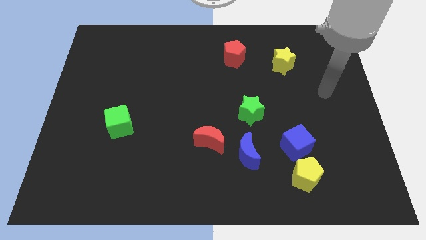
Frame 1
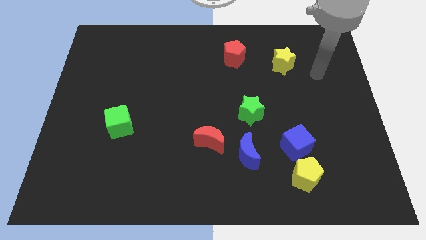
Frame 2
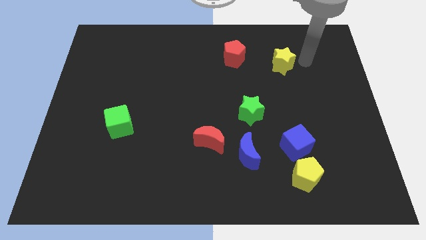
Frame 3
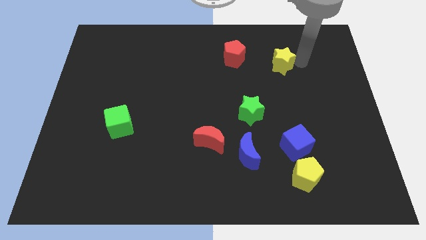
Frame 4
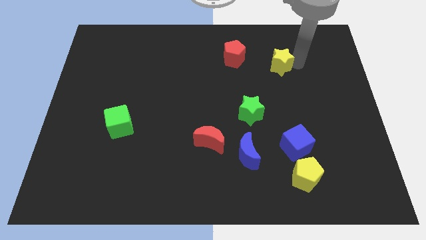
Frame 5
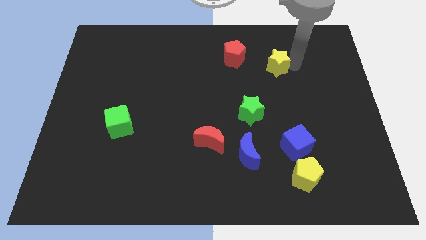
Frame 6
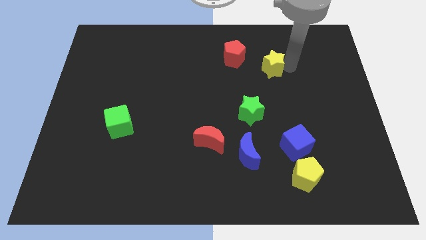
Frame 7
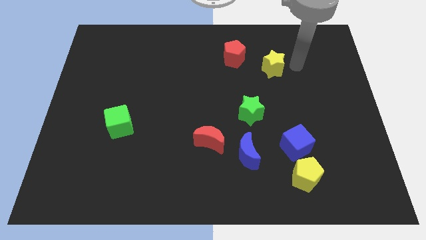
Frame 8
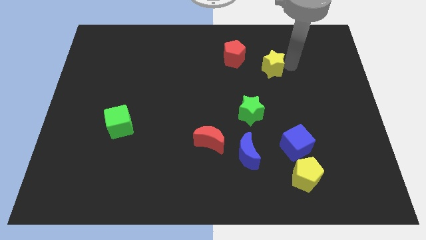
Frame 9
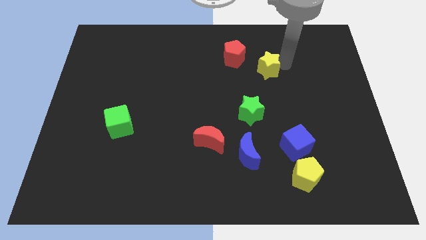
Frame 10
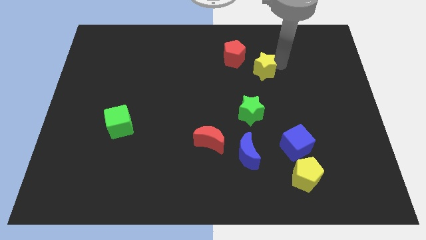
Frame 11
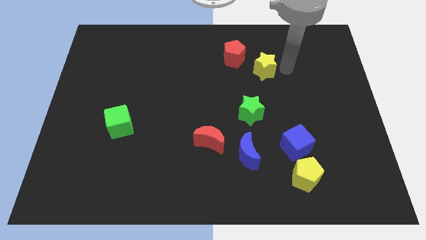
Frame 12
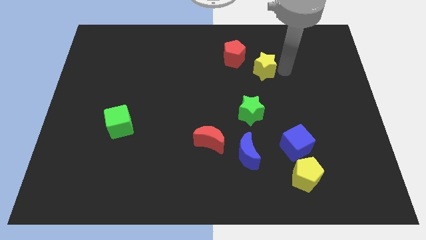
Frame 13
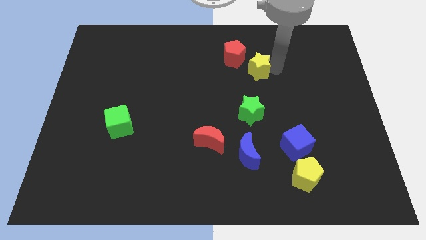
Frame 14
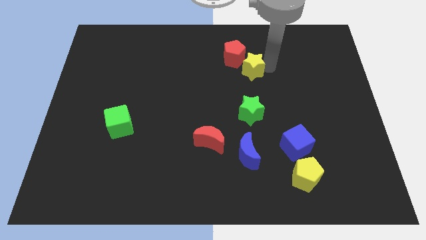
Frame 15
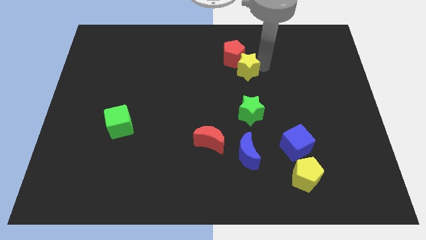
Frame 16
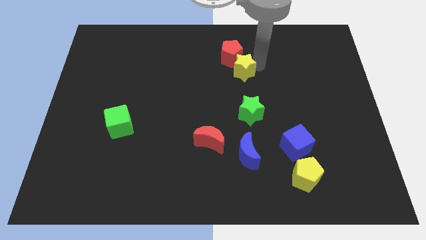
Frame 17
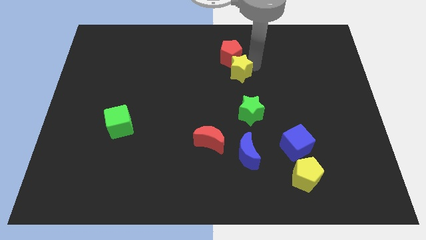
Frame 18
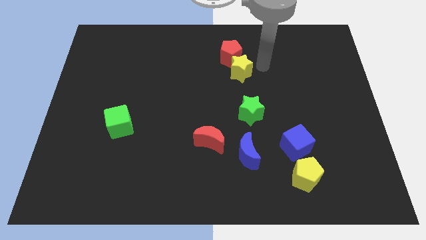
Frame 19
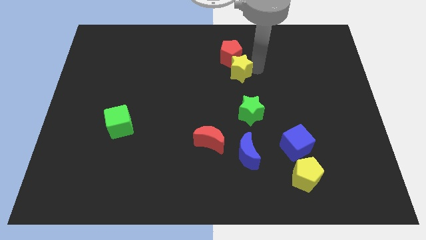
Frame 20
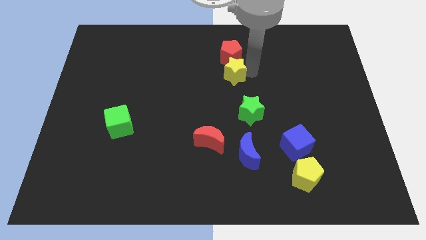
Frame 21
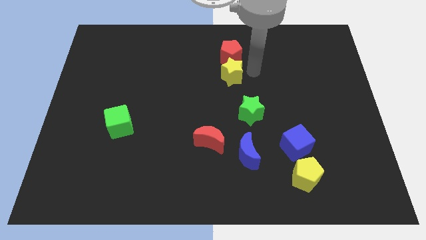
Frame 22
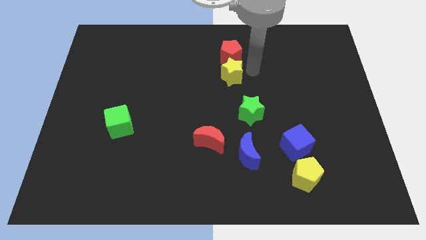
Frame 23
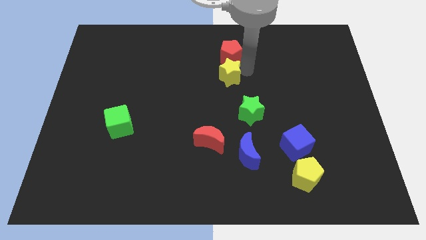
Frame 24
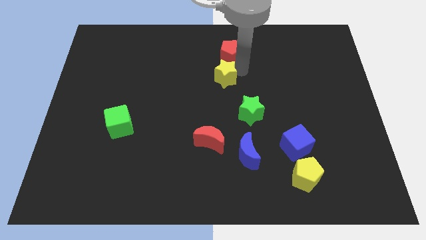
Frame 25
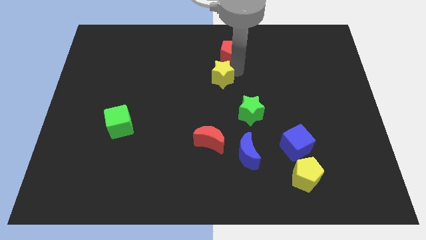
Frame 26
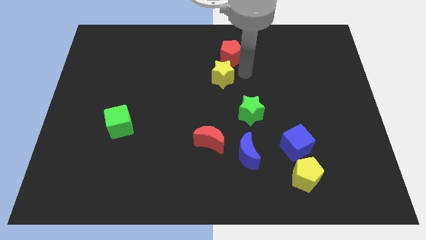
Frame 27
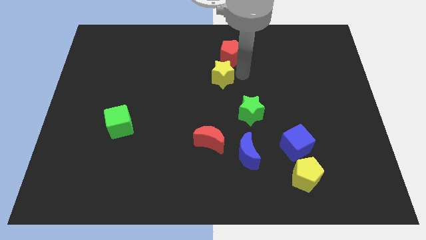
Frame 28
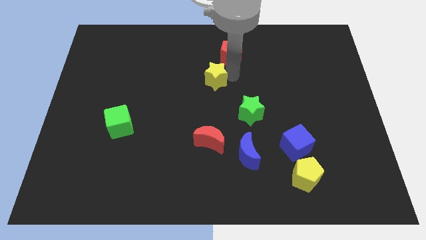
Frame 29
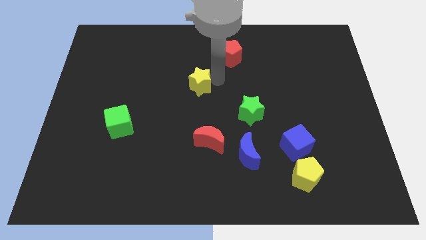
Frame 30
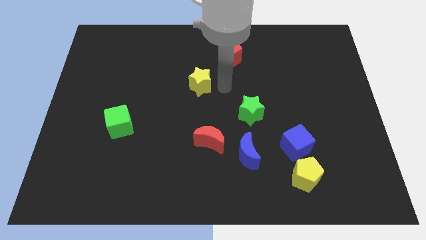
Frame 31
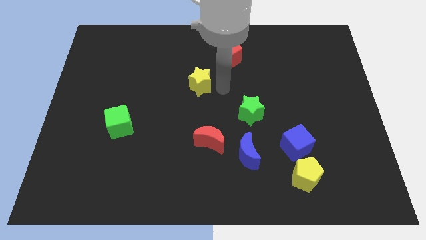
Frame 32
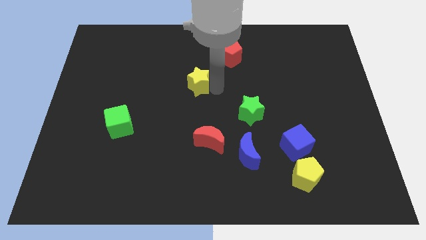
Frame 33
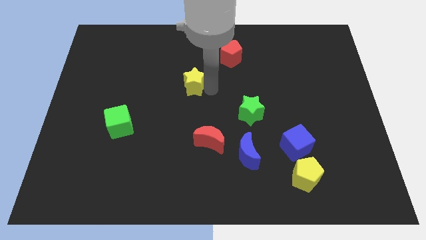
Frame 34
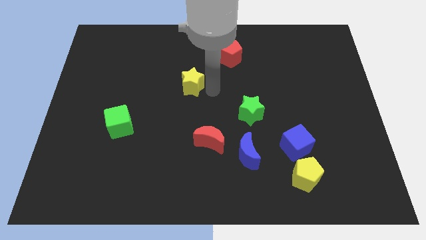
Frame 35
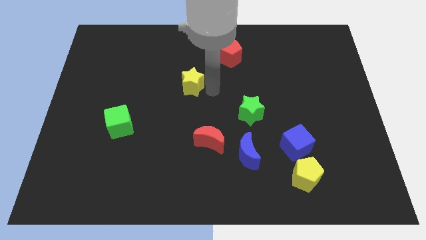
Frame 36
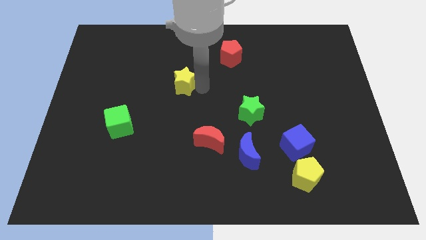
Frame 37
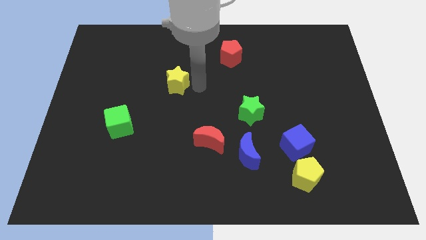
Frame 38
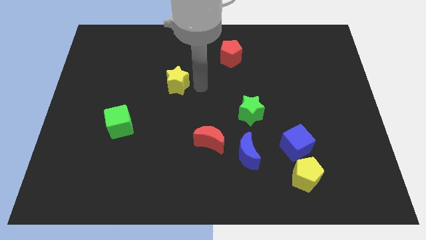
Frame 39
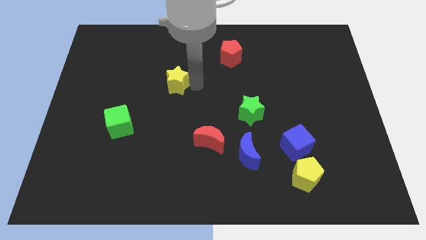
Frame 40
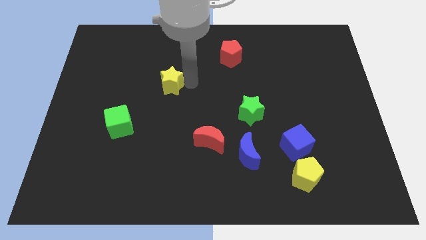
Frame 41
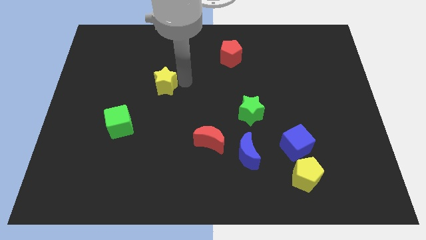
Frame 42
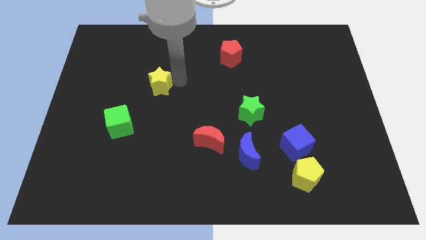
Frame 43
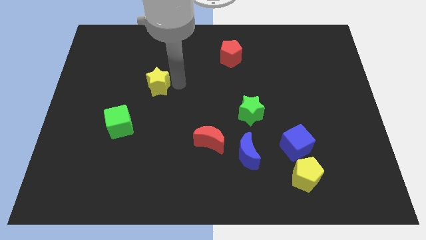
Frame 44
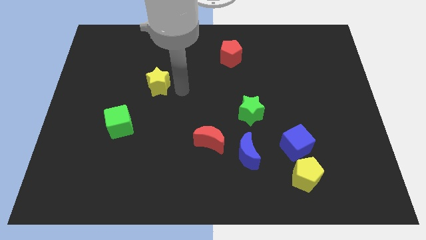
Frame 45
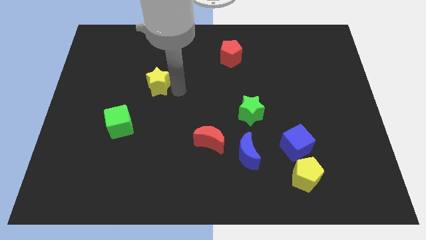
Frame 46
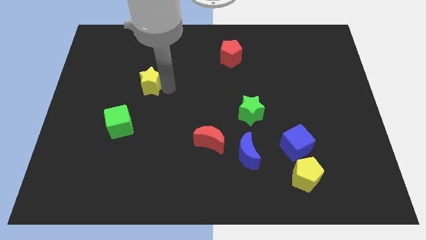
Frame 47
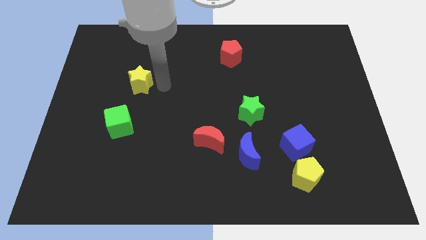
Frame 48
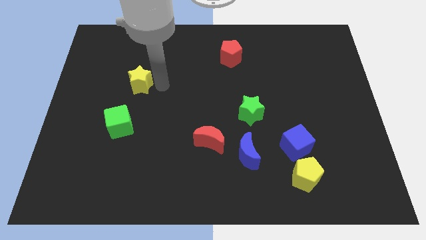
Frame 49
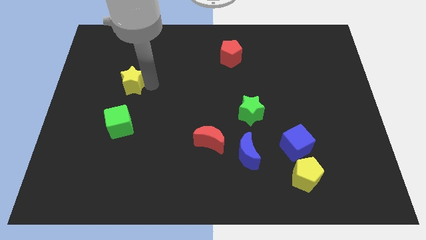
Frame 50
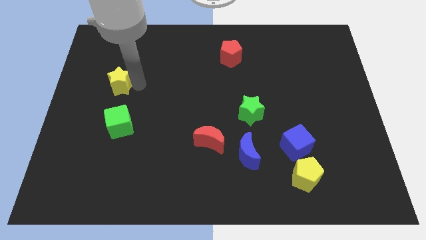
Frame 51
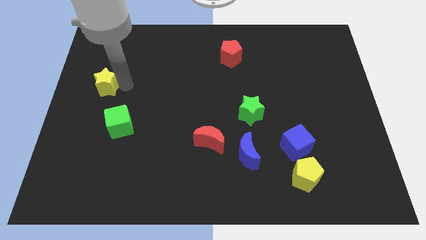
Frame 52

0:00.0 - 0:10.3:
slide the yellow star to the left side

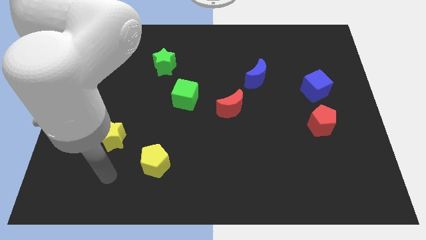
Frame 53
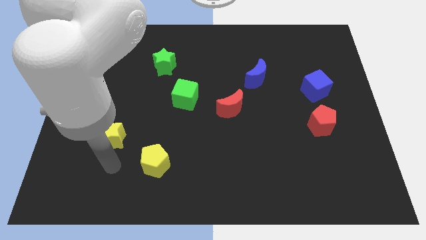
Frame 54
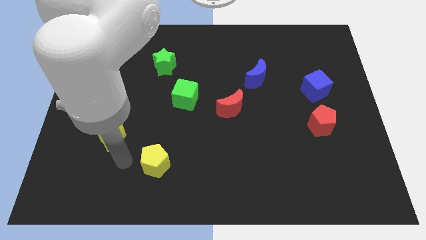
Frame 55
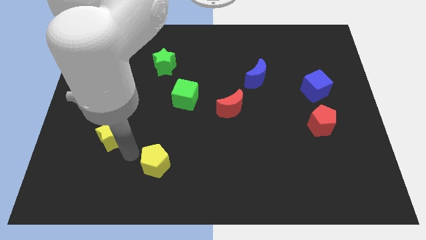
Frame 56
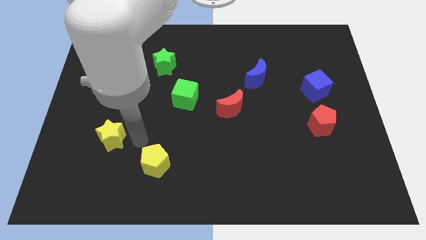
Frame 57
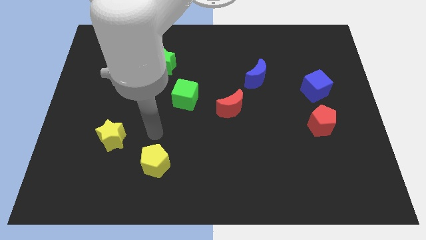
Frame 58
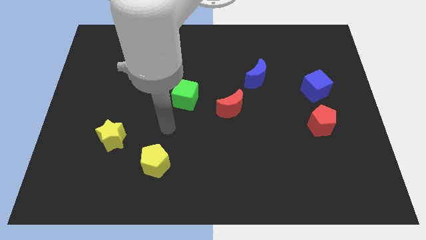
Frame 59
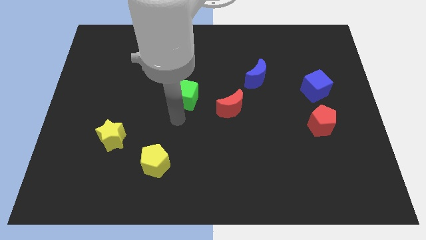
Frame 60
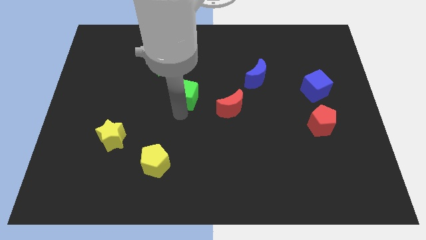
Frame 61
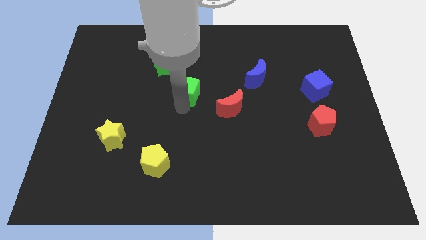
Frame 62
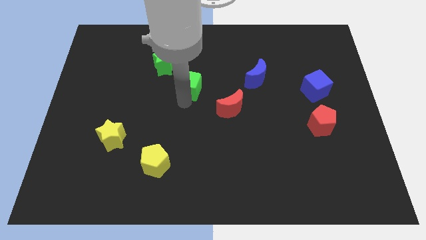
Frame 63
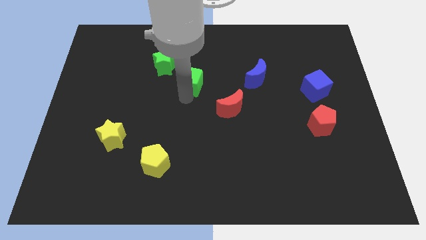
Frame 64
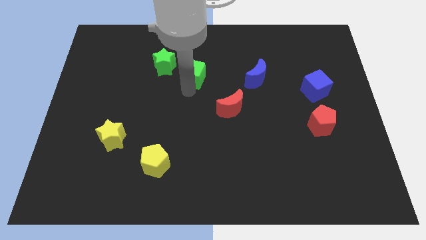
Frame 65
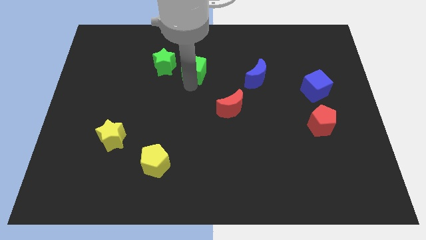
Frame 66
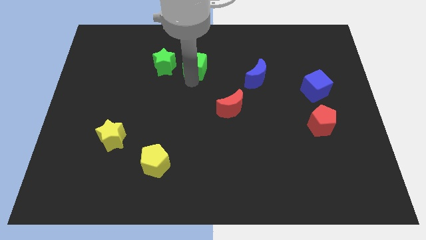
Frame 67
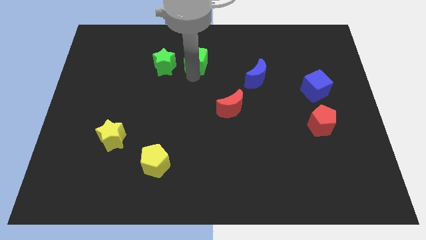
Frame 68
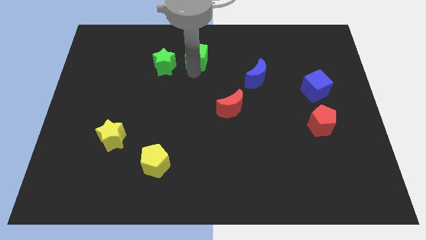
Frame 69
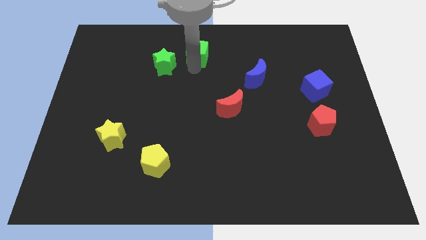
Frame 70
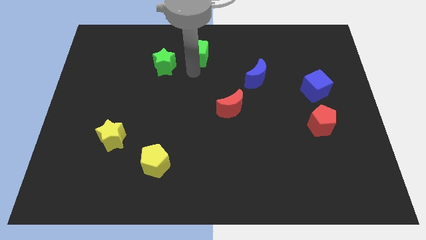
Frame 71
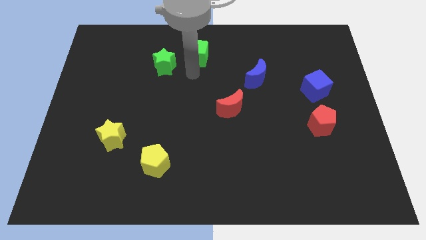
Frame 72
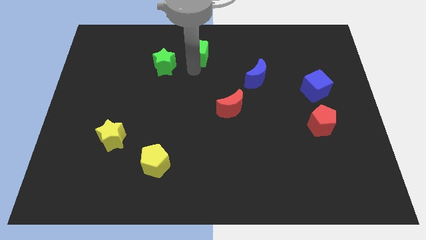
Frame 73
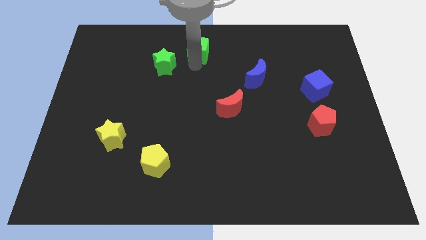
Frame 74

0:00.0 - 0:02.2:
slide the green cube to the top side

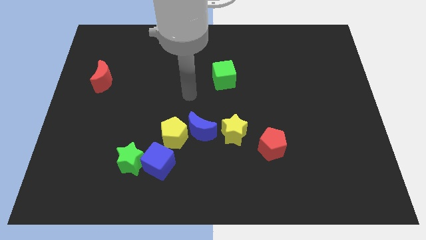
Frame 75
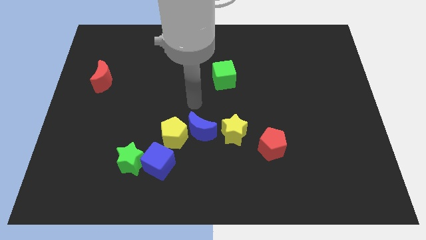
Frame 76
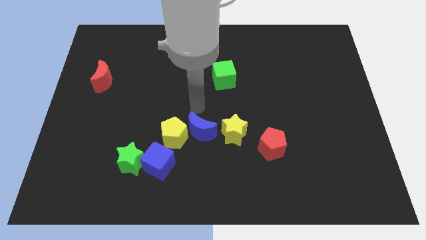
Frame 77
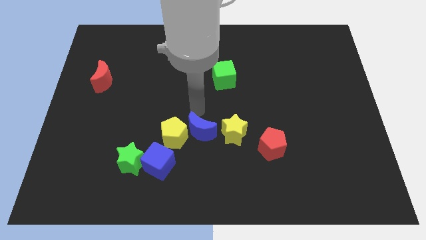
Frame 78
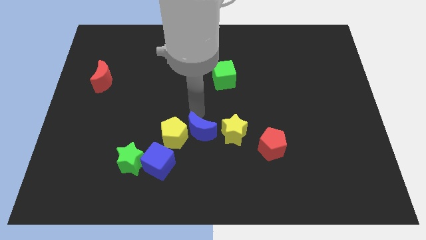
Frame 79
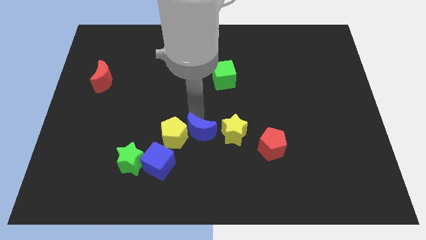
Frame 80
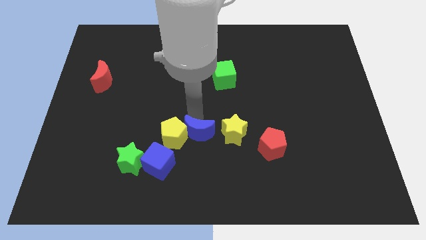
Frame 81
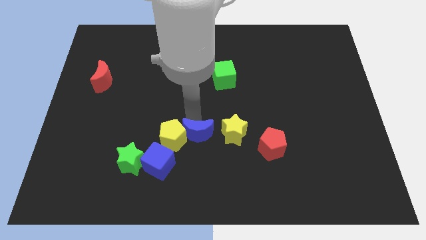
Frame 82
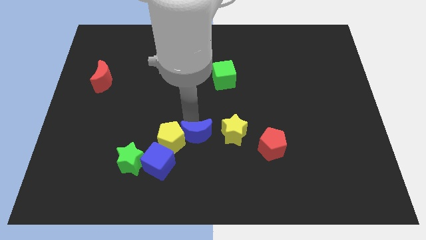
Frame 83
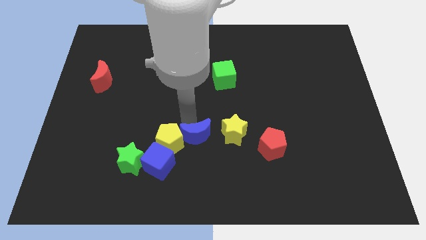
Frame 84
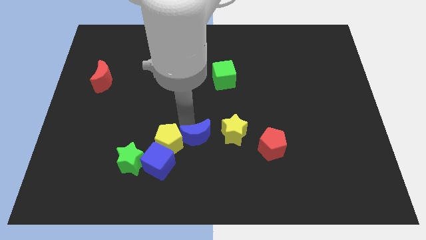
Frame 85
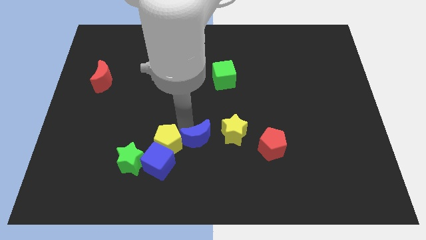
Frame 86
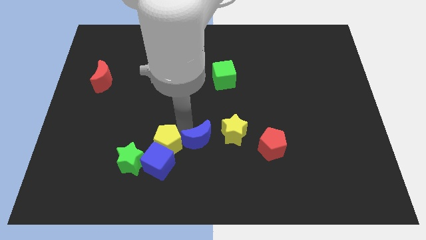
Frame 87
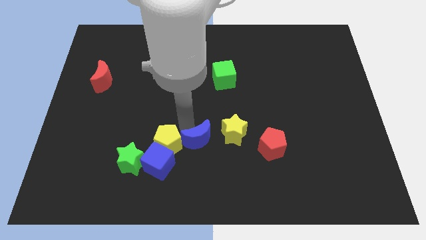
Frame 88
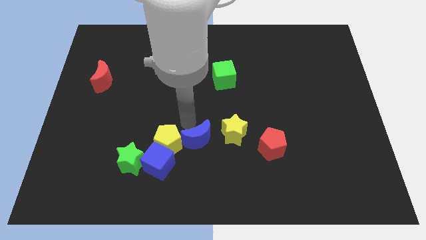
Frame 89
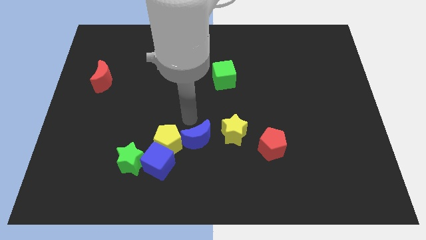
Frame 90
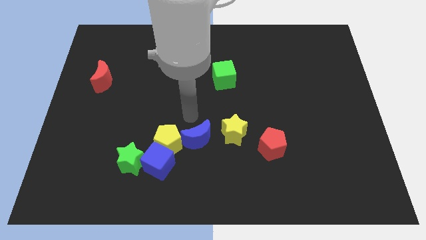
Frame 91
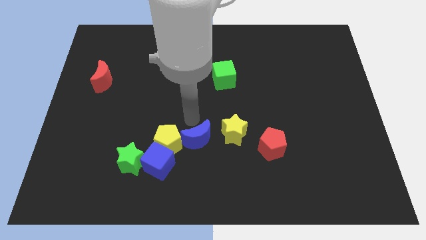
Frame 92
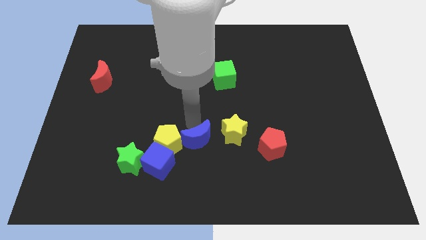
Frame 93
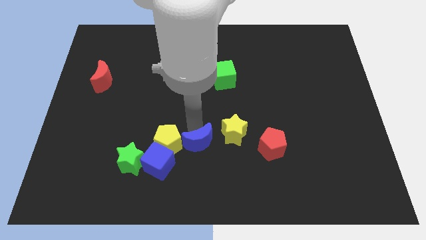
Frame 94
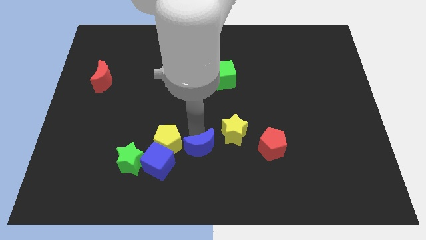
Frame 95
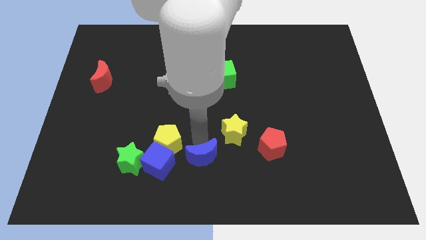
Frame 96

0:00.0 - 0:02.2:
move the blue moon to the bottom
